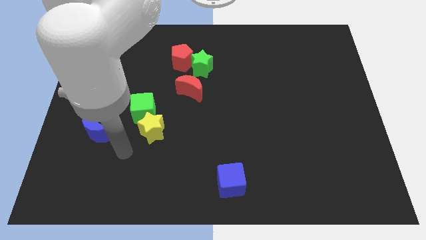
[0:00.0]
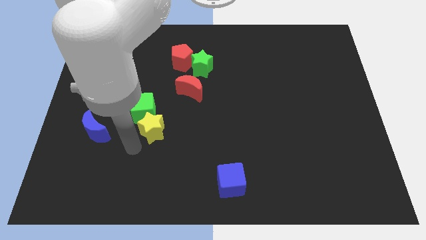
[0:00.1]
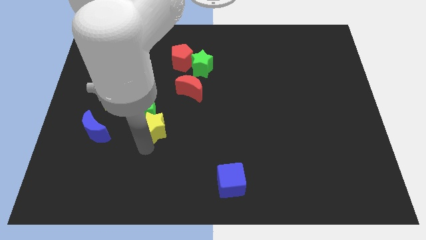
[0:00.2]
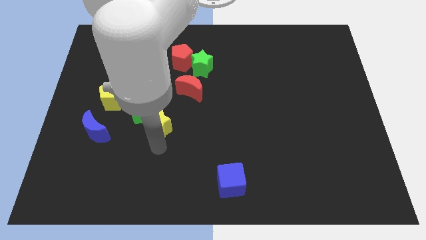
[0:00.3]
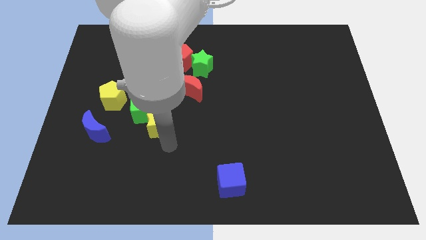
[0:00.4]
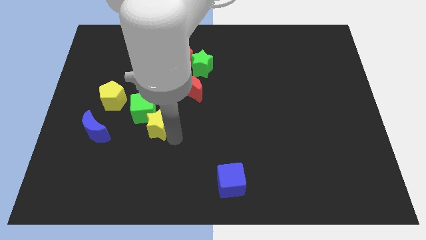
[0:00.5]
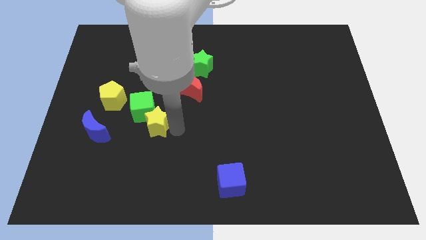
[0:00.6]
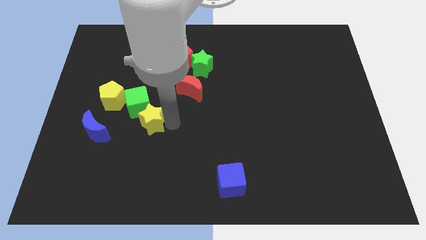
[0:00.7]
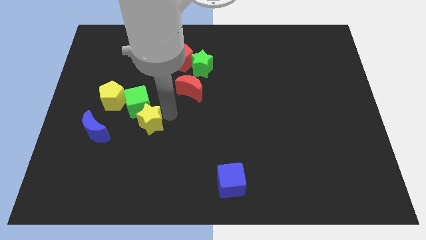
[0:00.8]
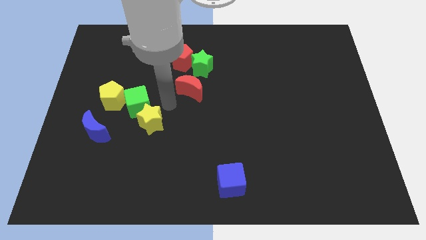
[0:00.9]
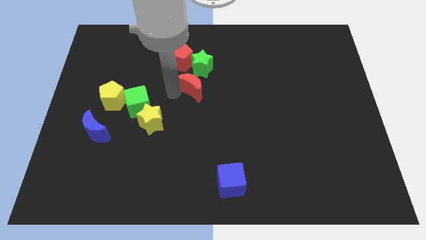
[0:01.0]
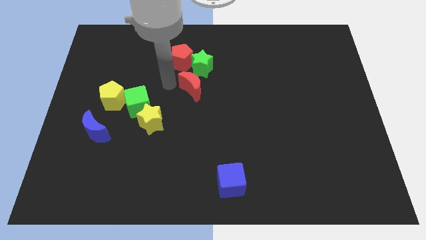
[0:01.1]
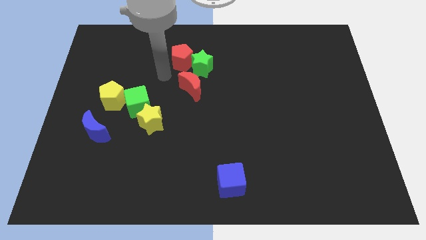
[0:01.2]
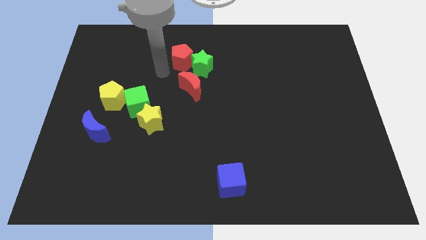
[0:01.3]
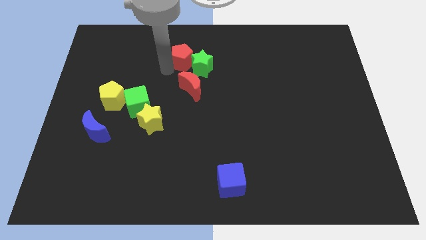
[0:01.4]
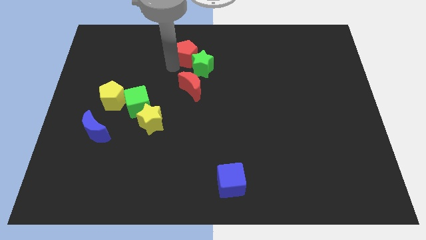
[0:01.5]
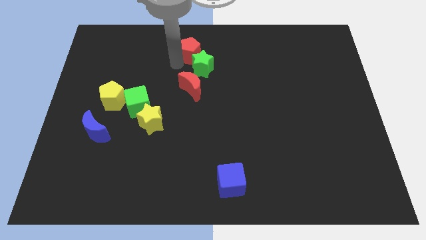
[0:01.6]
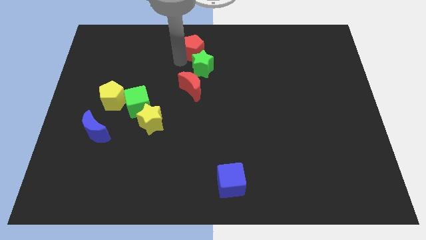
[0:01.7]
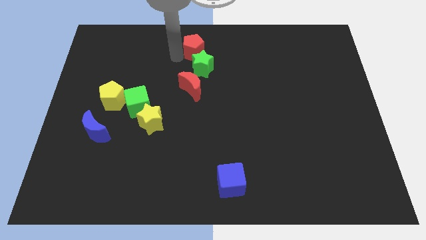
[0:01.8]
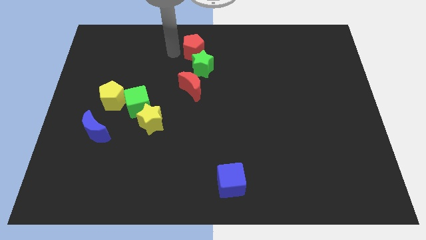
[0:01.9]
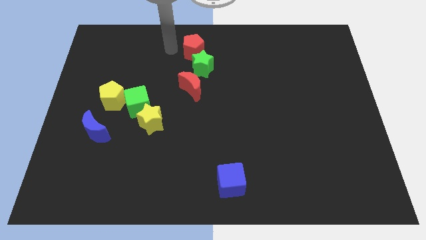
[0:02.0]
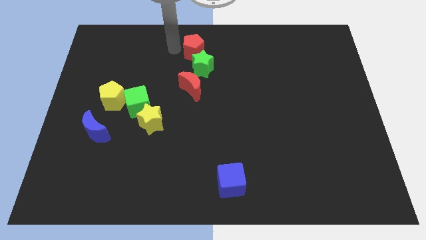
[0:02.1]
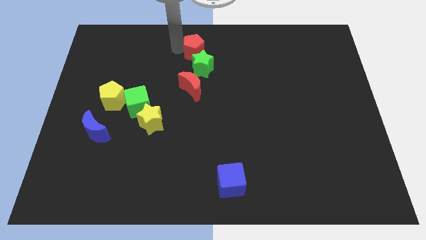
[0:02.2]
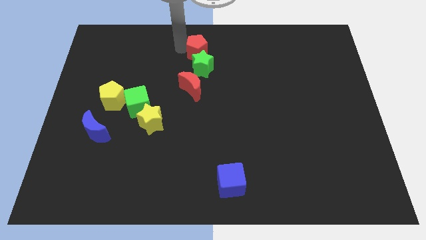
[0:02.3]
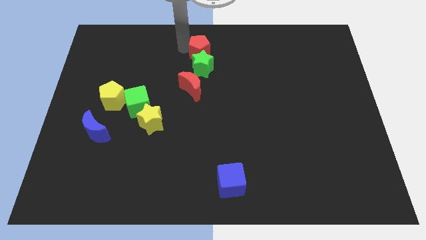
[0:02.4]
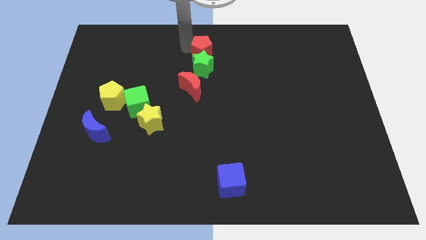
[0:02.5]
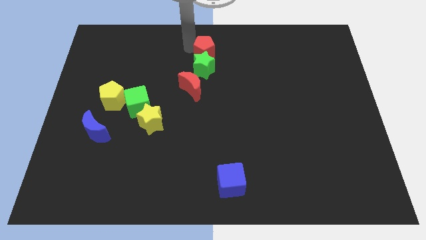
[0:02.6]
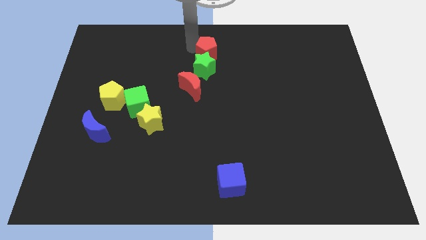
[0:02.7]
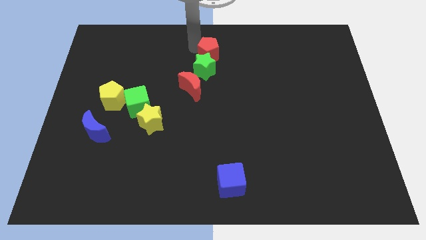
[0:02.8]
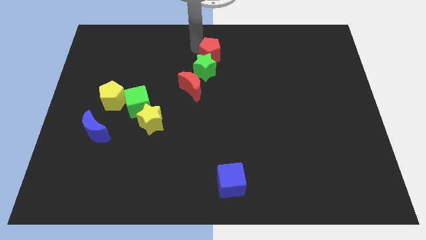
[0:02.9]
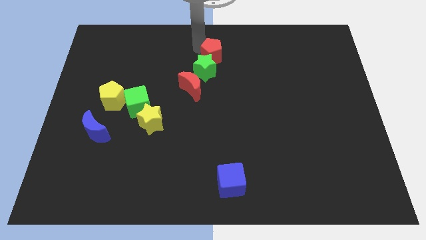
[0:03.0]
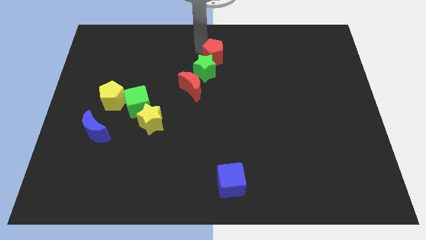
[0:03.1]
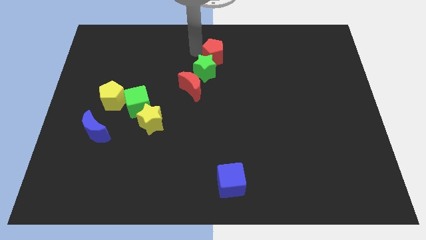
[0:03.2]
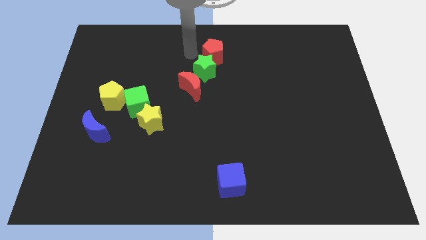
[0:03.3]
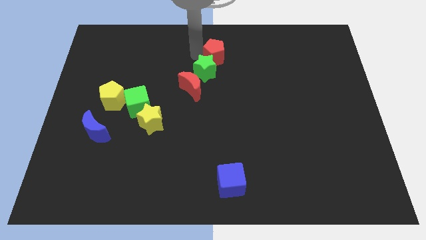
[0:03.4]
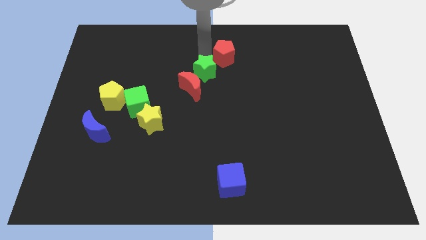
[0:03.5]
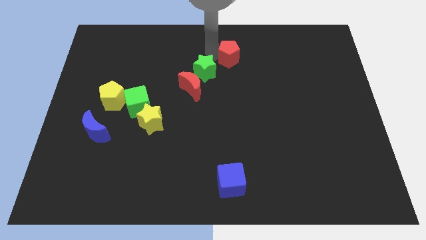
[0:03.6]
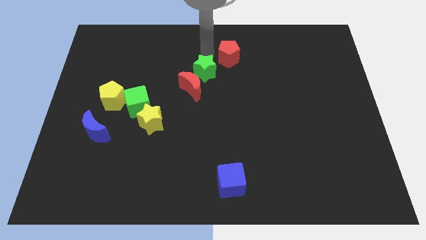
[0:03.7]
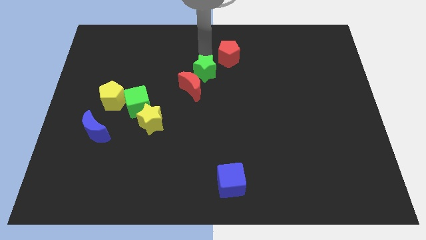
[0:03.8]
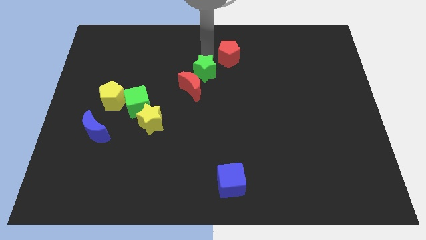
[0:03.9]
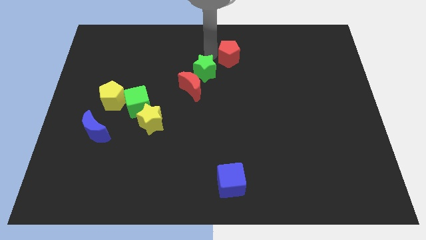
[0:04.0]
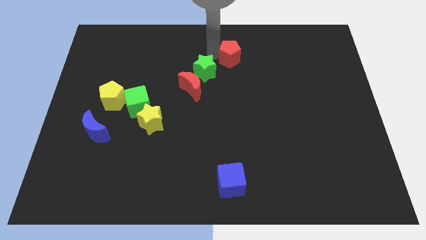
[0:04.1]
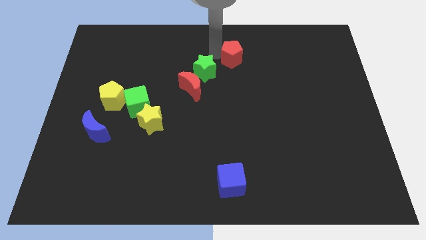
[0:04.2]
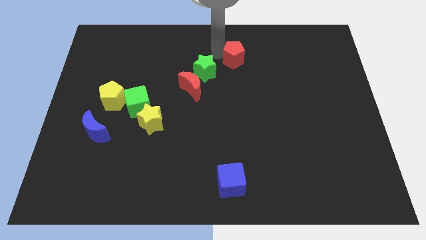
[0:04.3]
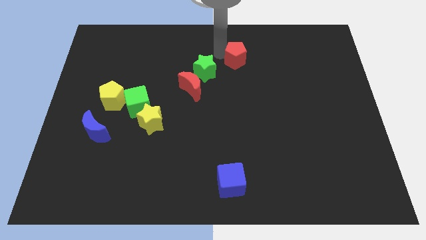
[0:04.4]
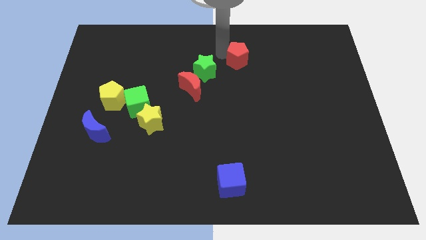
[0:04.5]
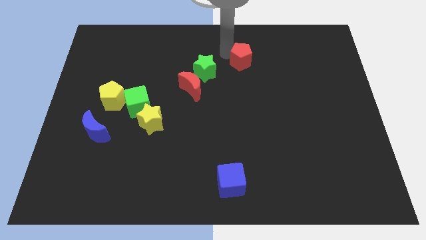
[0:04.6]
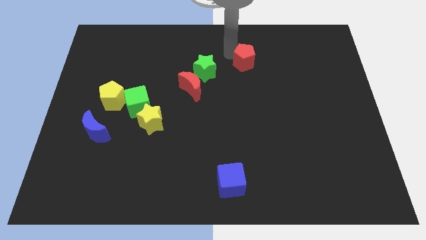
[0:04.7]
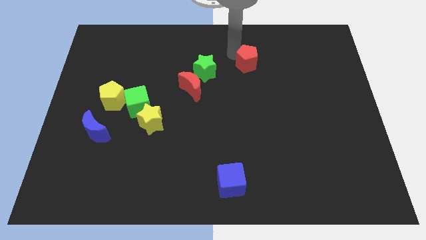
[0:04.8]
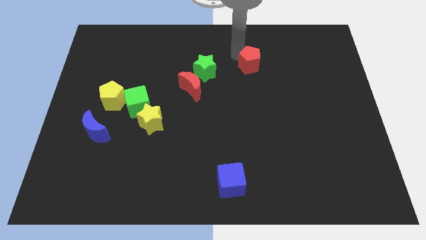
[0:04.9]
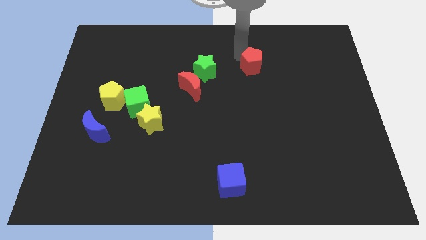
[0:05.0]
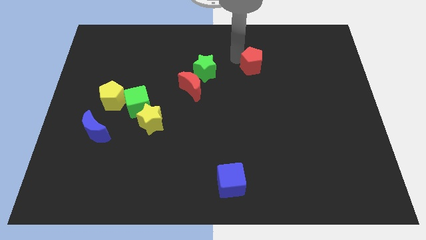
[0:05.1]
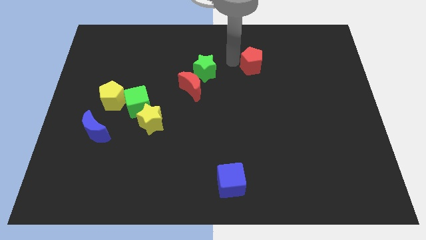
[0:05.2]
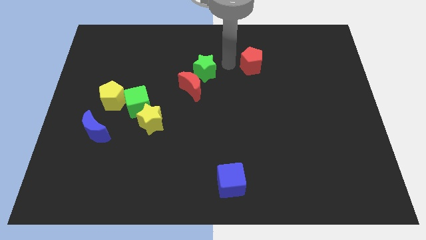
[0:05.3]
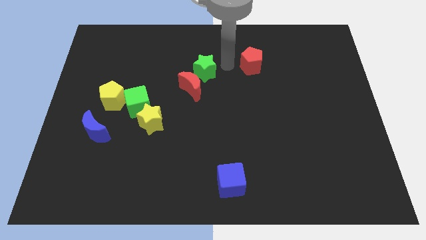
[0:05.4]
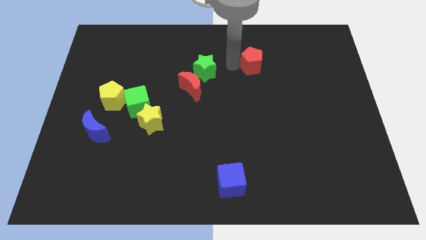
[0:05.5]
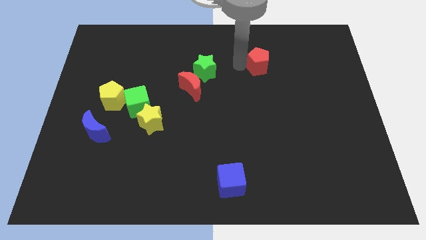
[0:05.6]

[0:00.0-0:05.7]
slide the red pentagon right

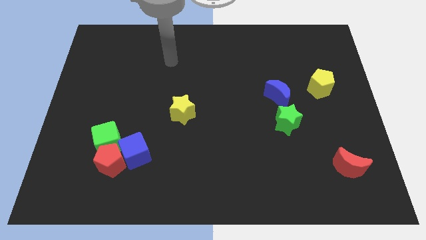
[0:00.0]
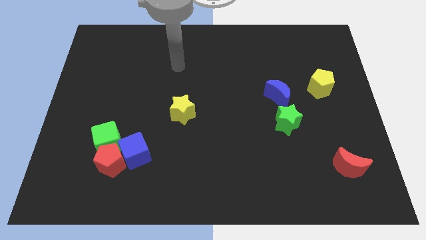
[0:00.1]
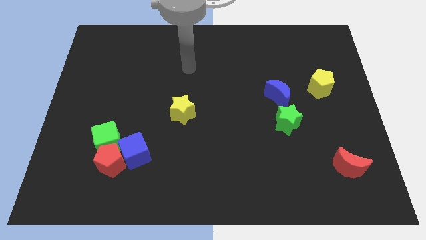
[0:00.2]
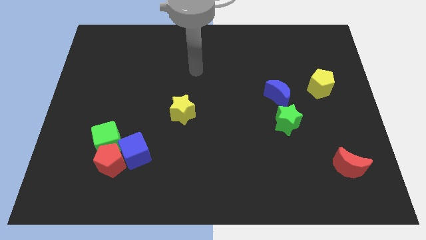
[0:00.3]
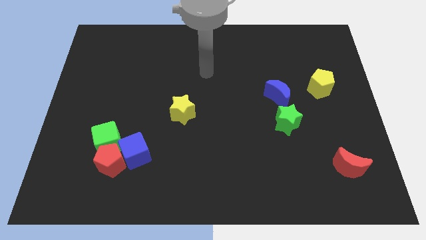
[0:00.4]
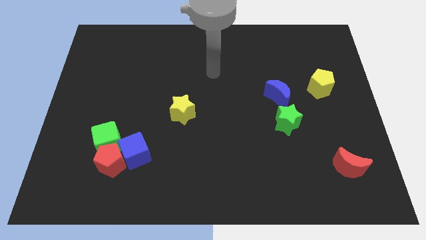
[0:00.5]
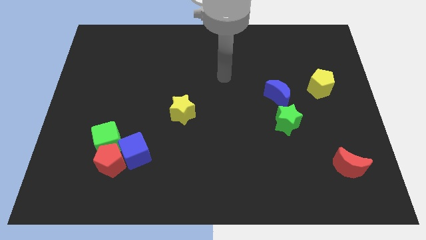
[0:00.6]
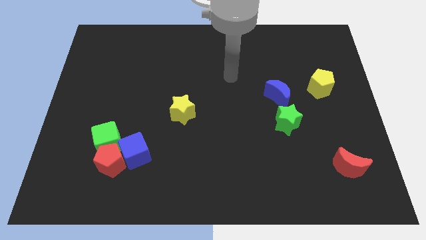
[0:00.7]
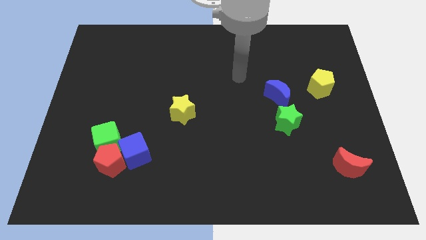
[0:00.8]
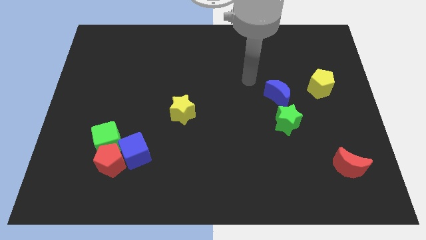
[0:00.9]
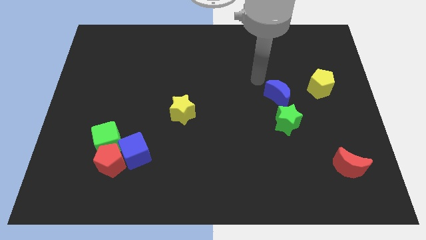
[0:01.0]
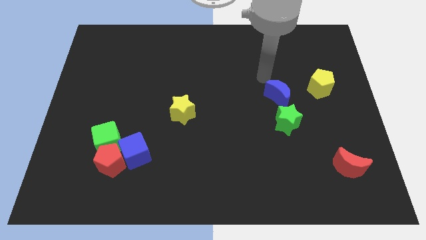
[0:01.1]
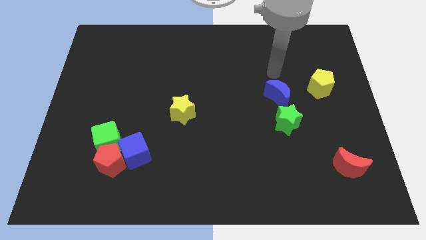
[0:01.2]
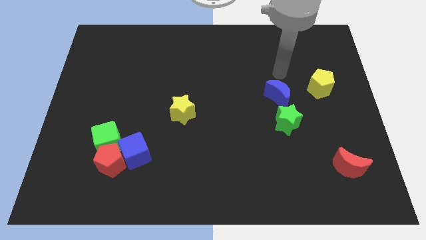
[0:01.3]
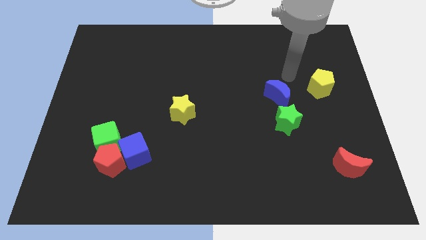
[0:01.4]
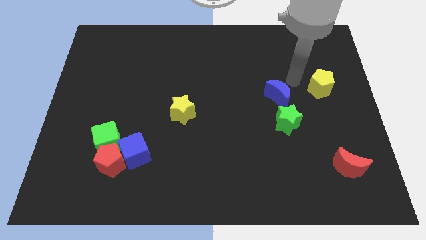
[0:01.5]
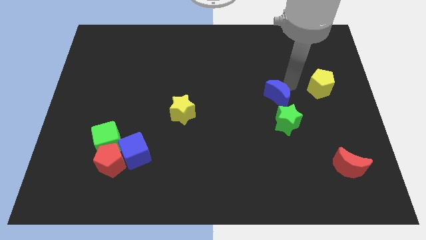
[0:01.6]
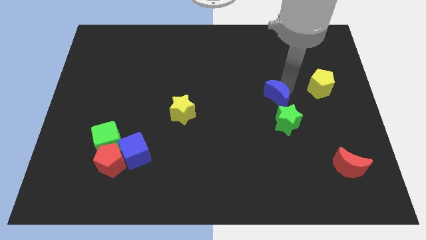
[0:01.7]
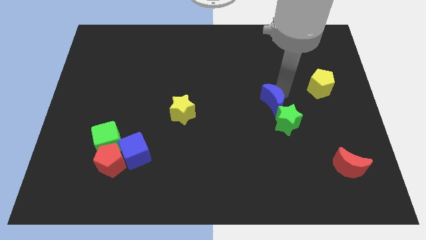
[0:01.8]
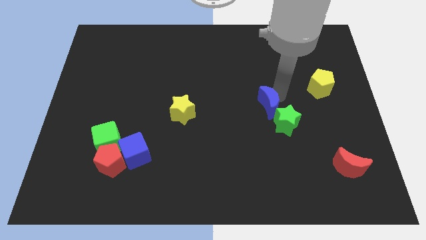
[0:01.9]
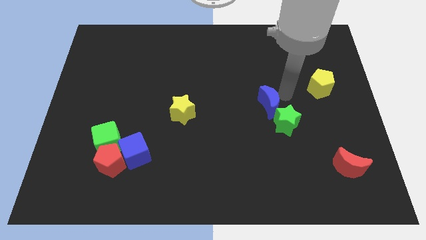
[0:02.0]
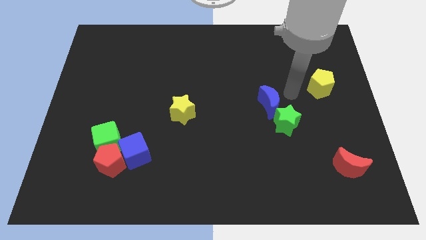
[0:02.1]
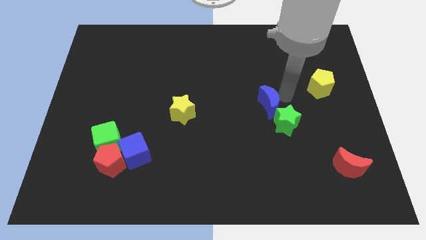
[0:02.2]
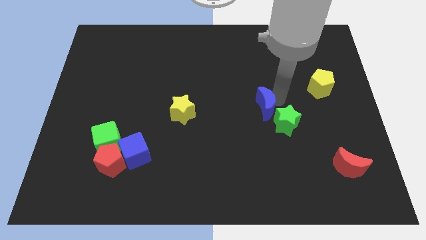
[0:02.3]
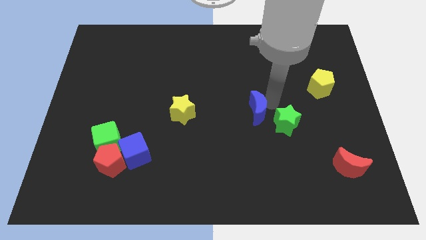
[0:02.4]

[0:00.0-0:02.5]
slightly push the blue moon diagonally downwards and to the left
